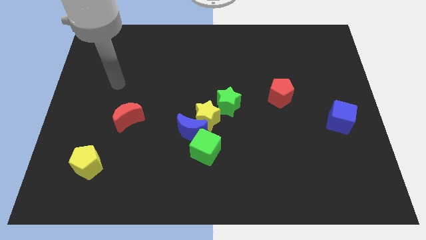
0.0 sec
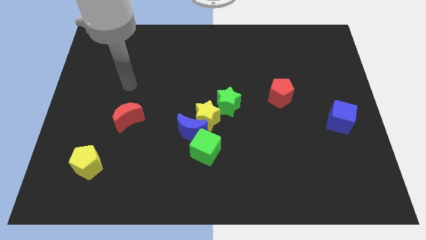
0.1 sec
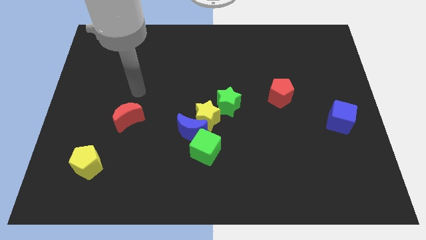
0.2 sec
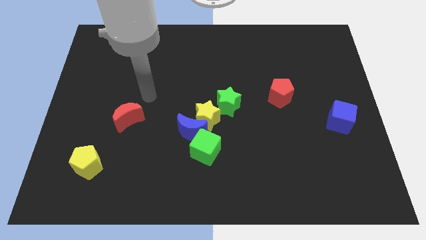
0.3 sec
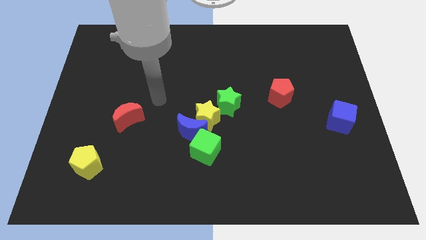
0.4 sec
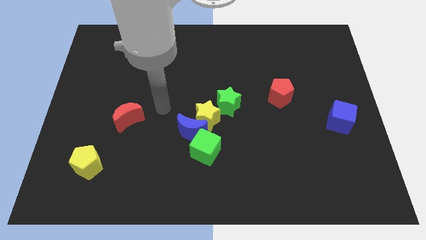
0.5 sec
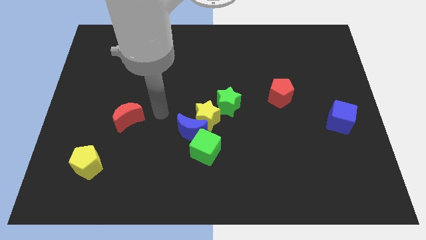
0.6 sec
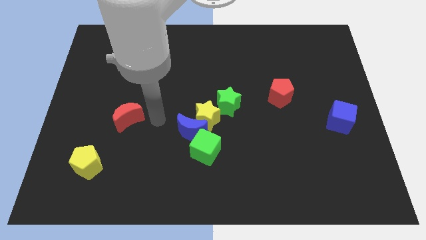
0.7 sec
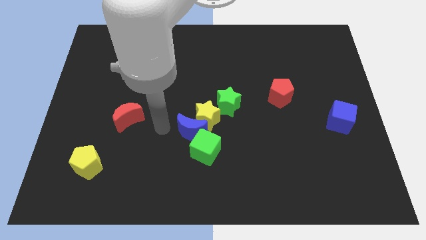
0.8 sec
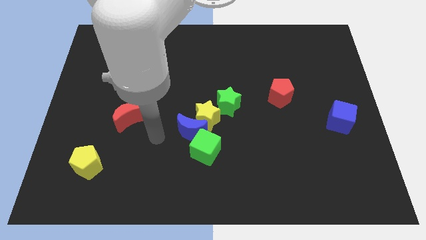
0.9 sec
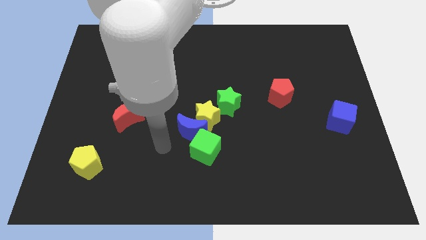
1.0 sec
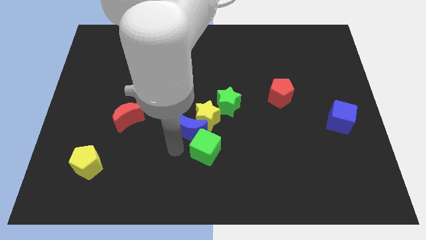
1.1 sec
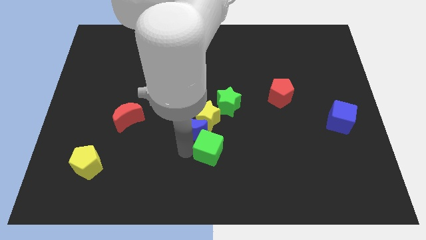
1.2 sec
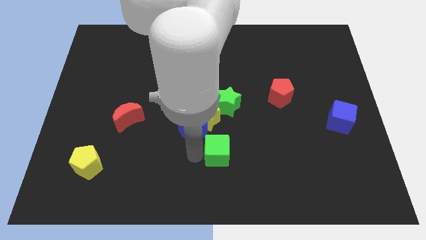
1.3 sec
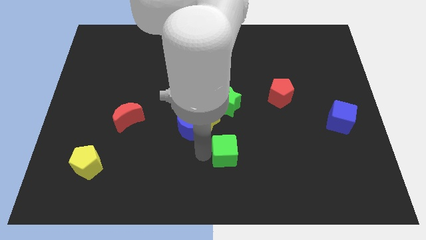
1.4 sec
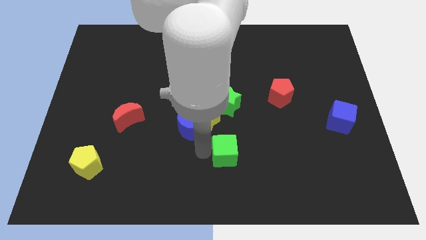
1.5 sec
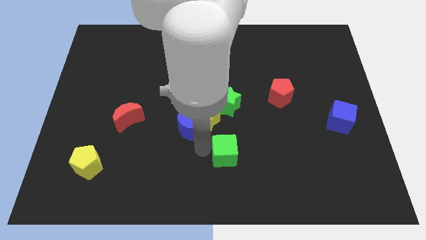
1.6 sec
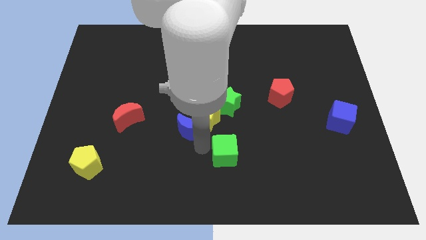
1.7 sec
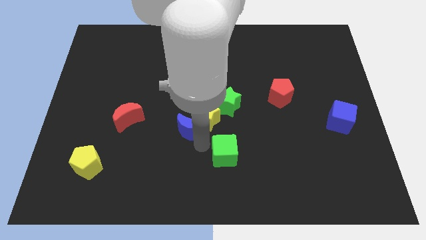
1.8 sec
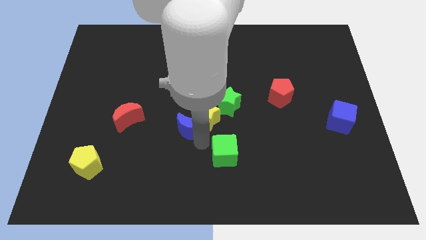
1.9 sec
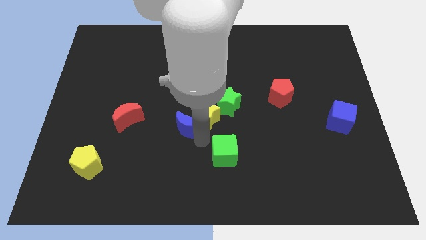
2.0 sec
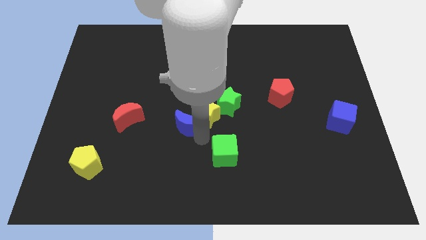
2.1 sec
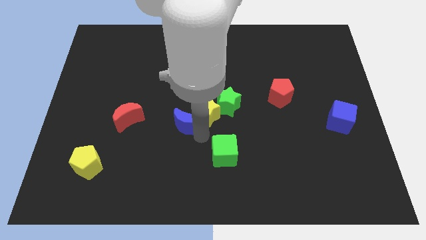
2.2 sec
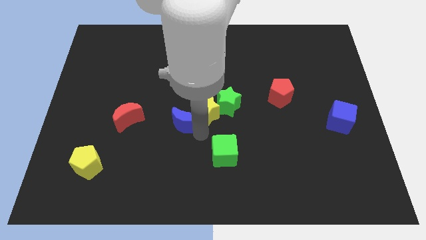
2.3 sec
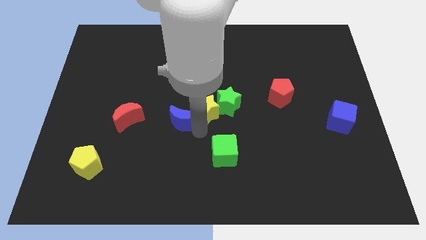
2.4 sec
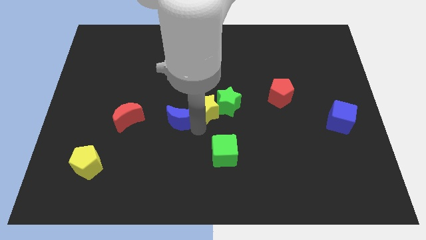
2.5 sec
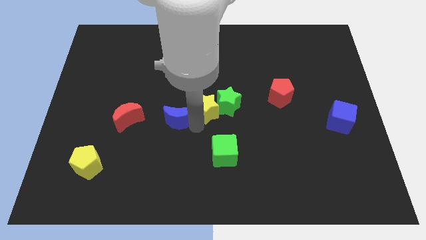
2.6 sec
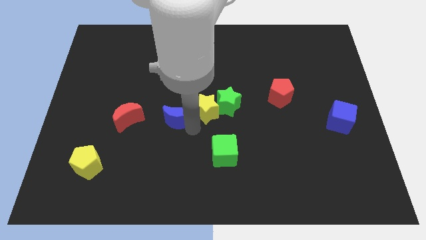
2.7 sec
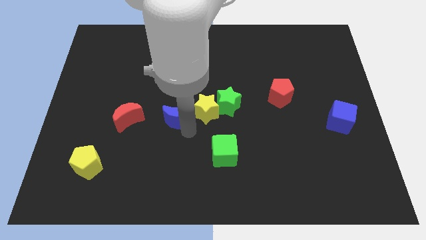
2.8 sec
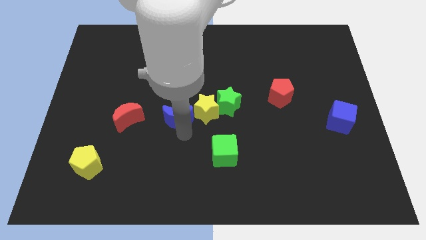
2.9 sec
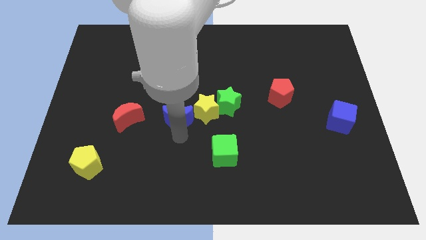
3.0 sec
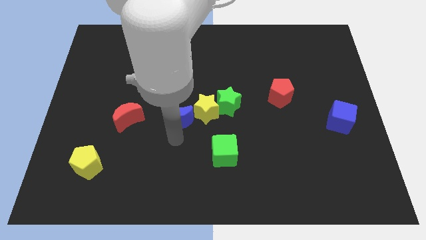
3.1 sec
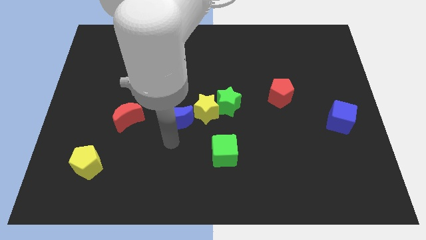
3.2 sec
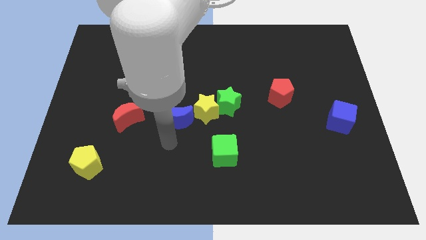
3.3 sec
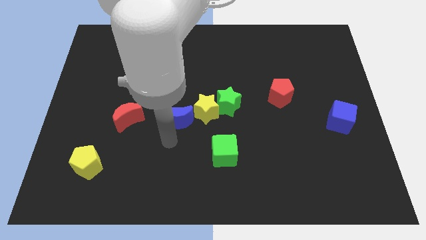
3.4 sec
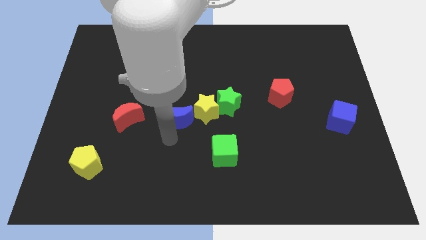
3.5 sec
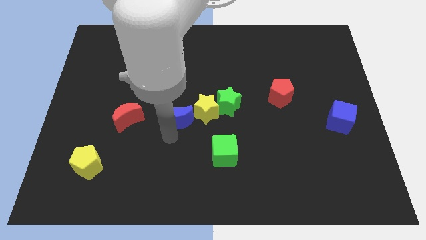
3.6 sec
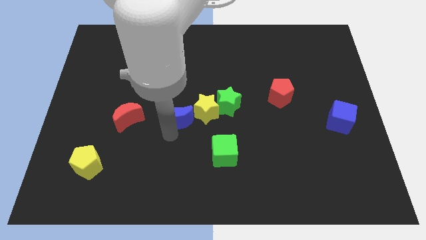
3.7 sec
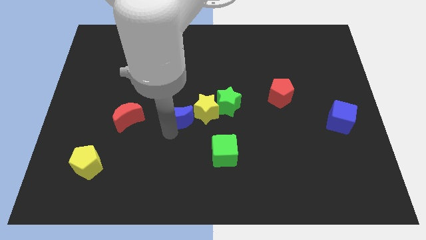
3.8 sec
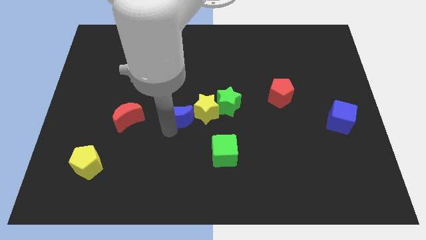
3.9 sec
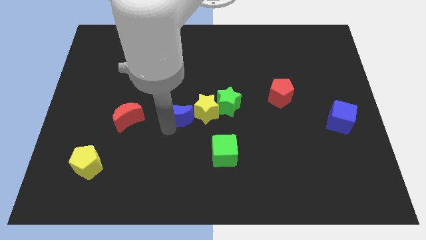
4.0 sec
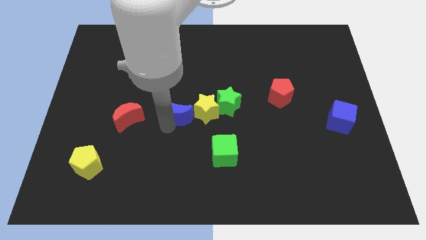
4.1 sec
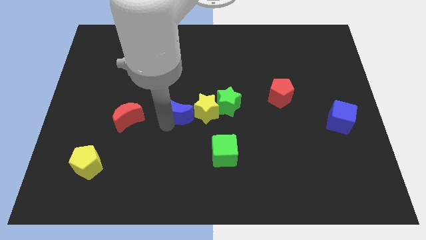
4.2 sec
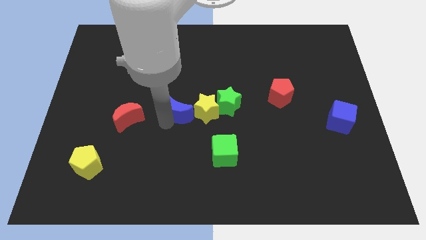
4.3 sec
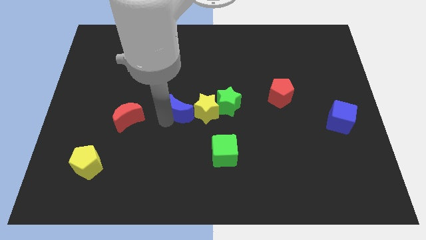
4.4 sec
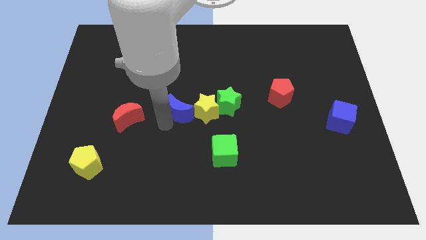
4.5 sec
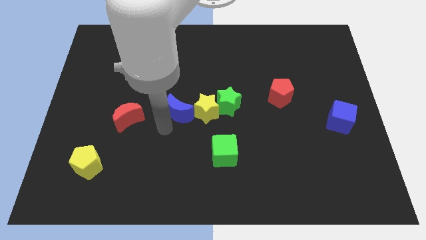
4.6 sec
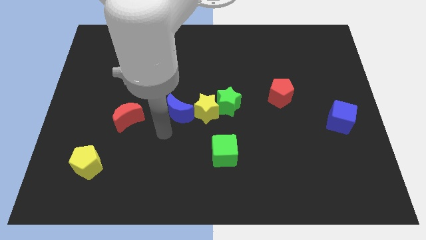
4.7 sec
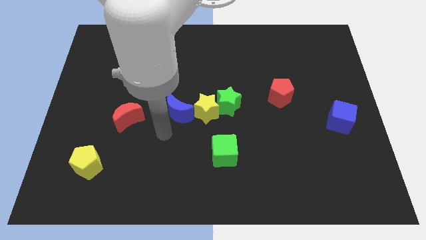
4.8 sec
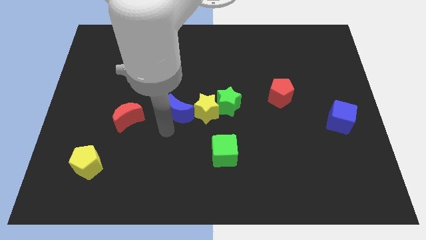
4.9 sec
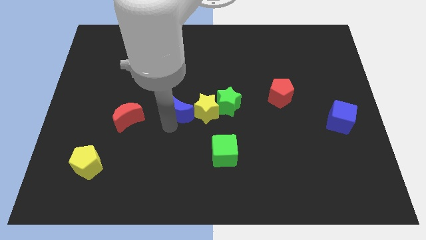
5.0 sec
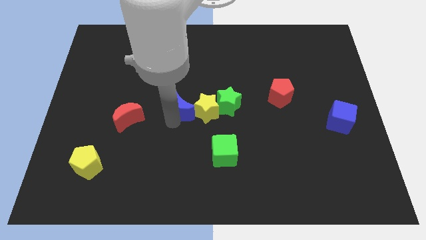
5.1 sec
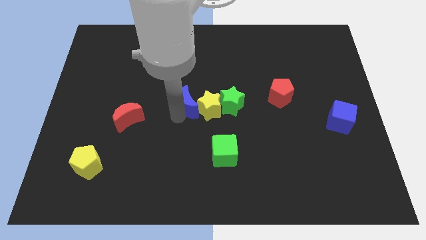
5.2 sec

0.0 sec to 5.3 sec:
push the blue moon upwards somewhat

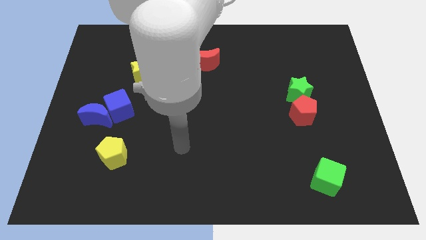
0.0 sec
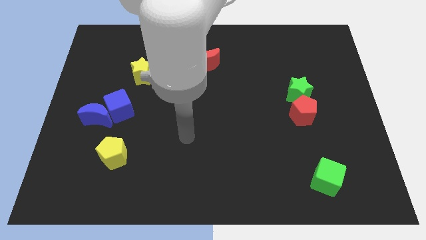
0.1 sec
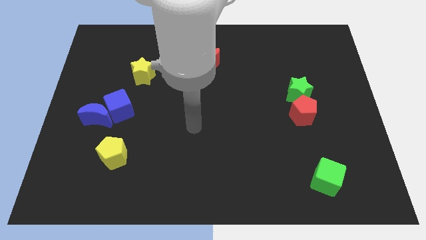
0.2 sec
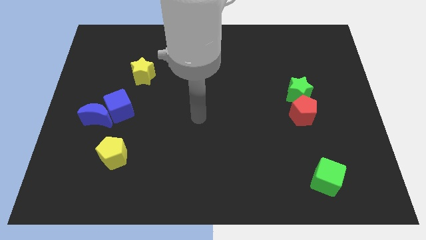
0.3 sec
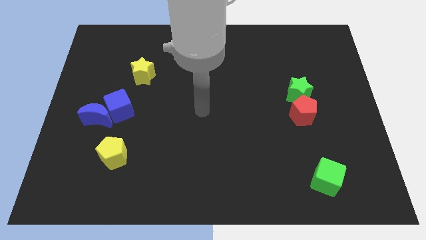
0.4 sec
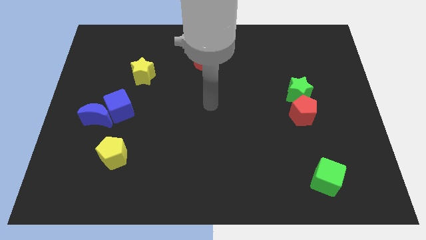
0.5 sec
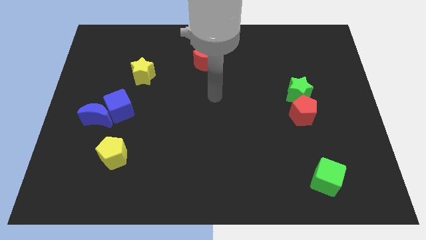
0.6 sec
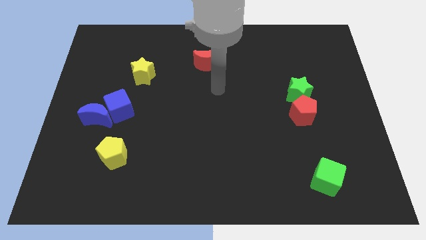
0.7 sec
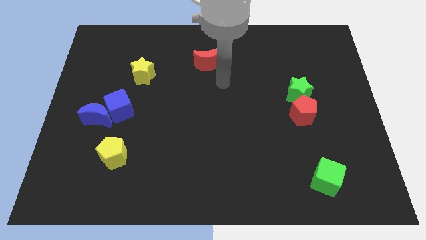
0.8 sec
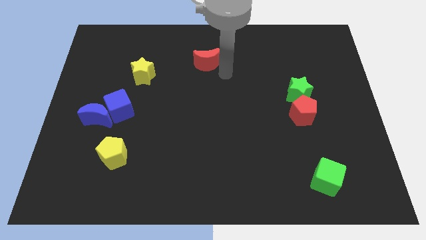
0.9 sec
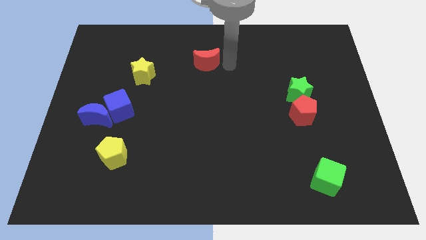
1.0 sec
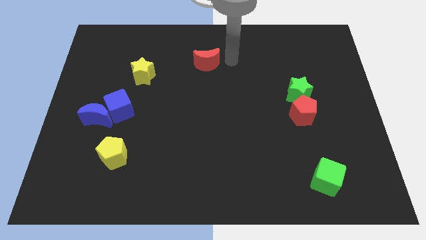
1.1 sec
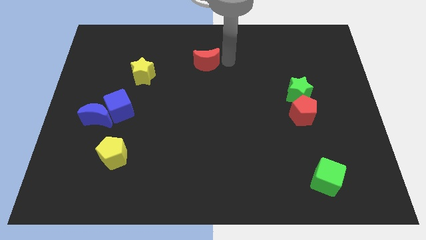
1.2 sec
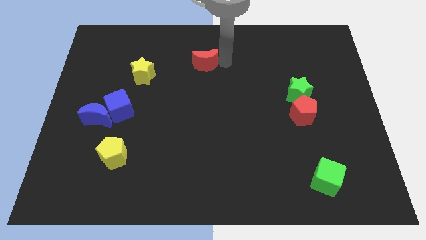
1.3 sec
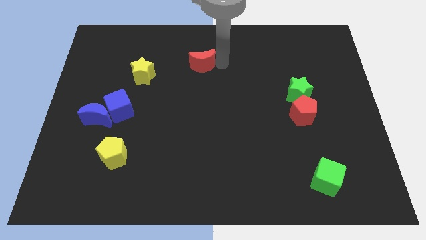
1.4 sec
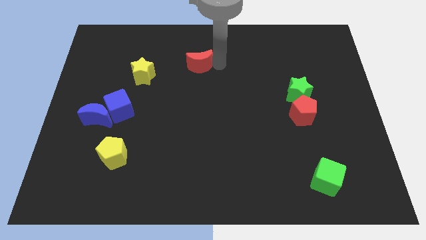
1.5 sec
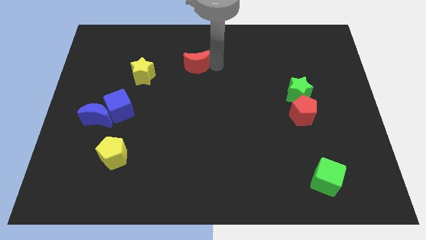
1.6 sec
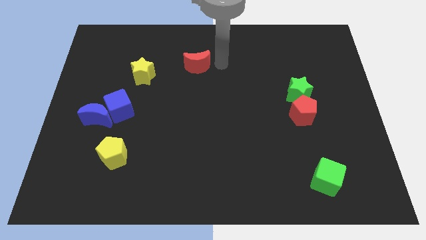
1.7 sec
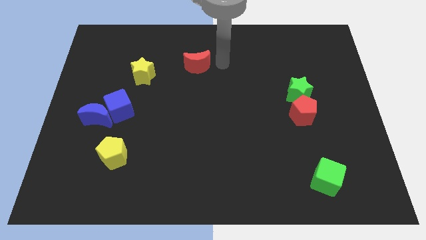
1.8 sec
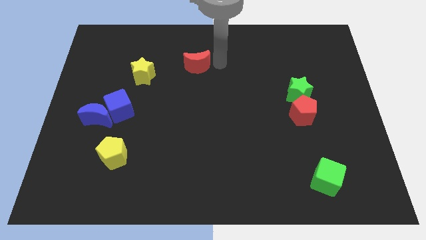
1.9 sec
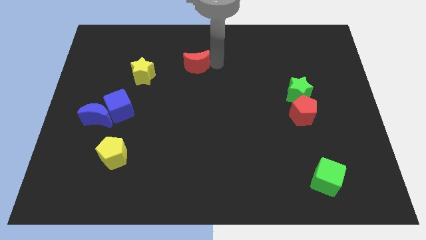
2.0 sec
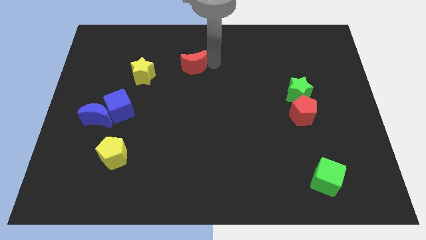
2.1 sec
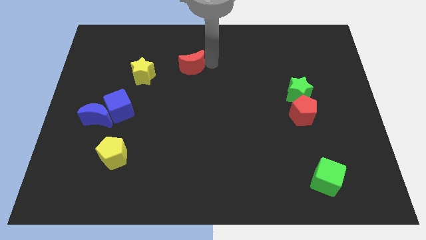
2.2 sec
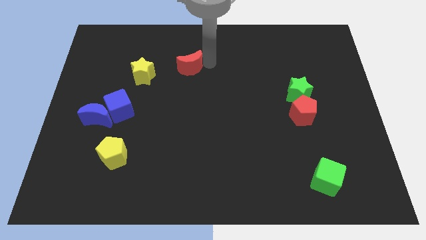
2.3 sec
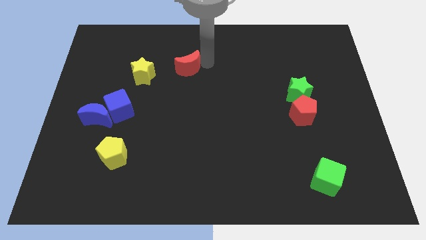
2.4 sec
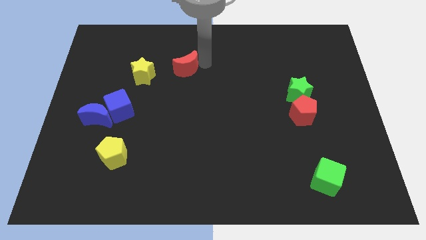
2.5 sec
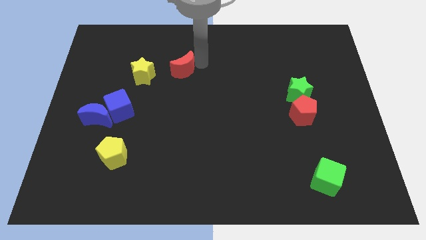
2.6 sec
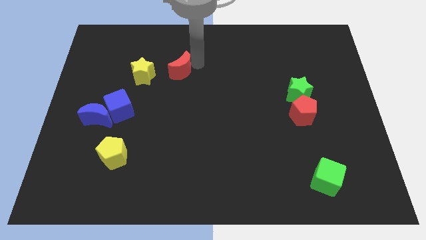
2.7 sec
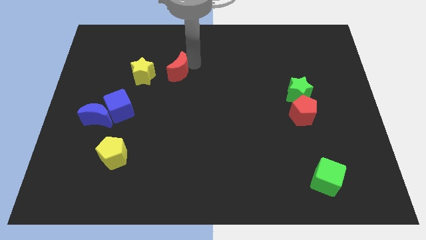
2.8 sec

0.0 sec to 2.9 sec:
move the red moon a little bit left
